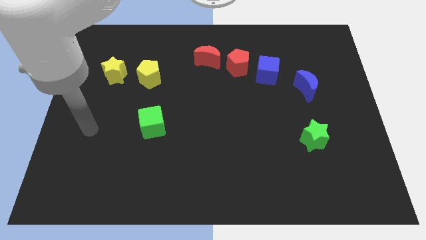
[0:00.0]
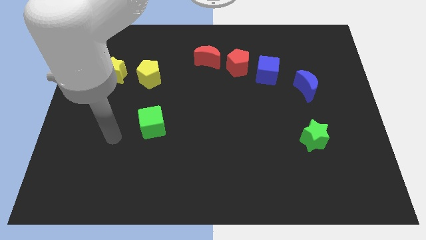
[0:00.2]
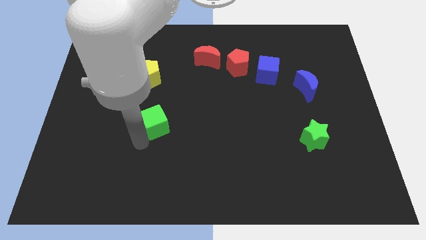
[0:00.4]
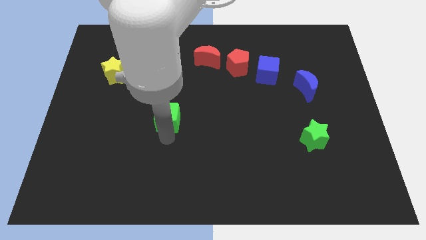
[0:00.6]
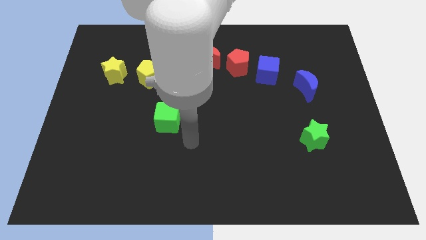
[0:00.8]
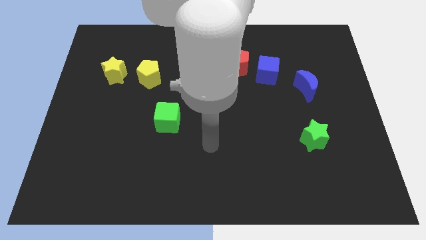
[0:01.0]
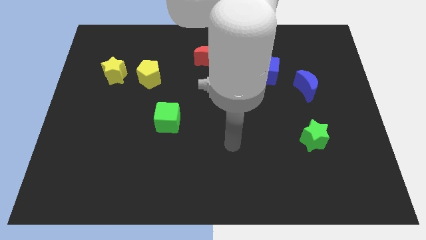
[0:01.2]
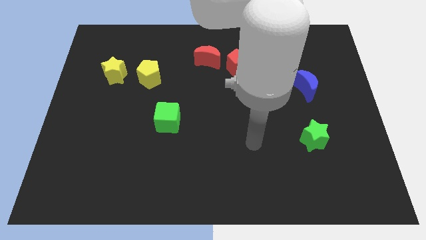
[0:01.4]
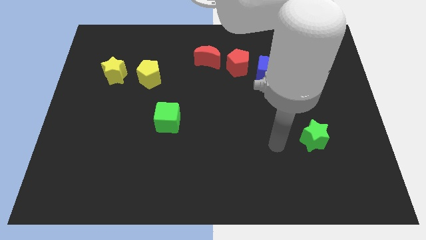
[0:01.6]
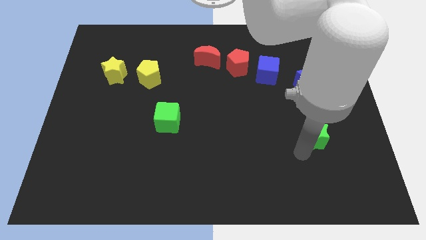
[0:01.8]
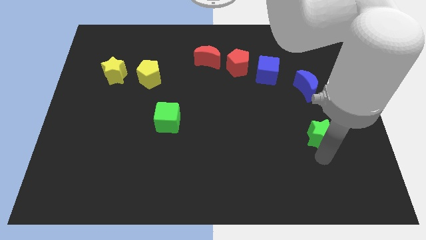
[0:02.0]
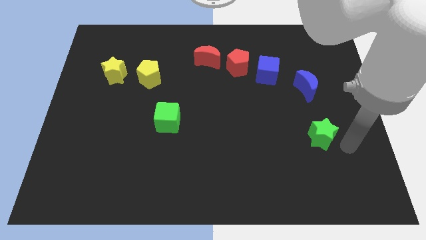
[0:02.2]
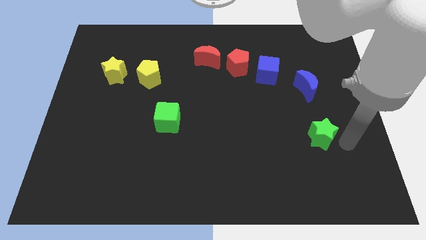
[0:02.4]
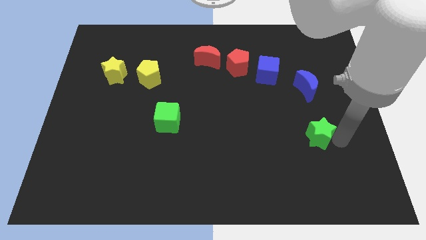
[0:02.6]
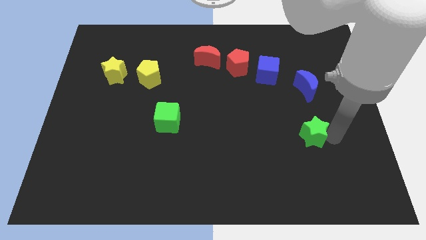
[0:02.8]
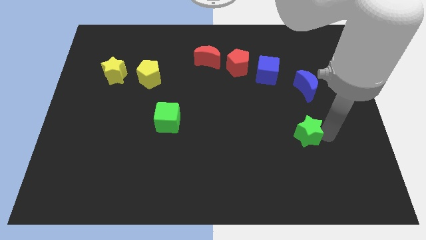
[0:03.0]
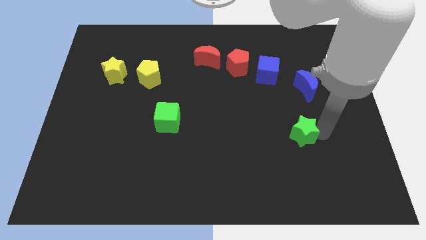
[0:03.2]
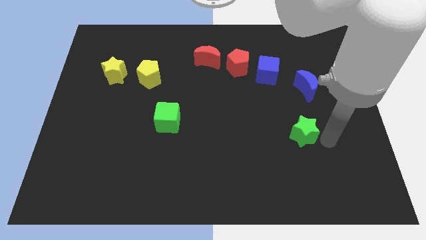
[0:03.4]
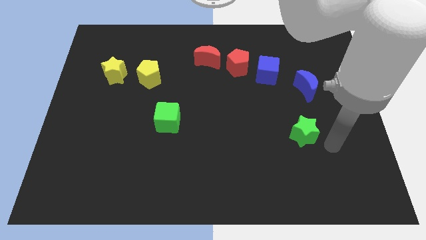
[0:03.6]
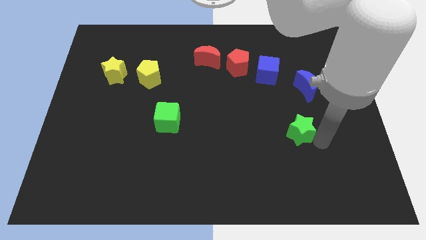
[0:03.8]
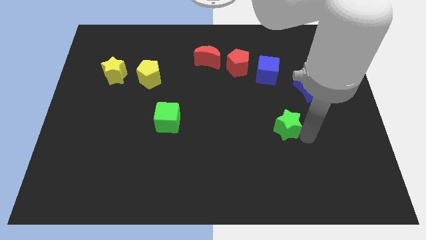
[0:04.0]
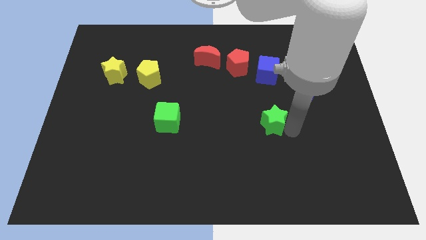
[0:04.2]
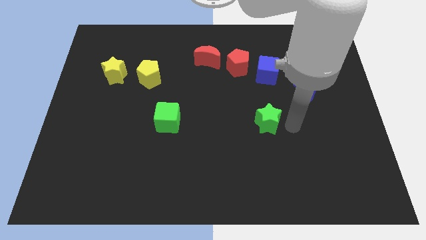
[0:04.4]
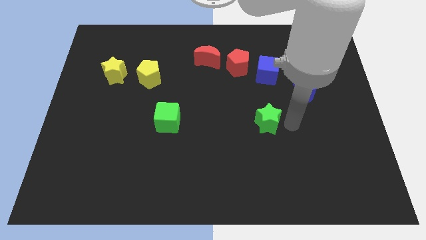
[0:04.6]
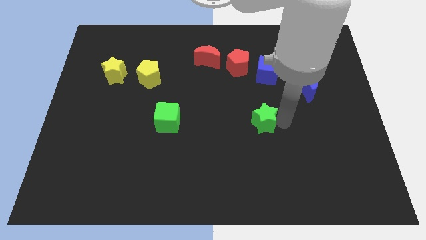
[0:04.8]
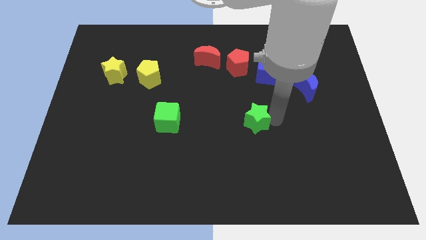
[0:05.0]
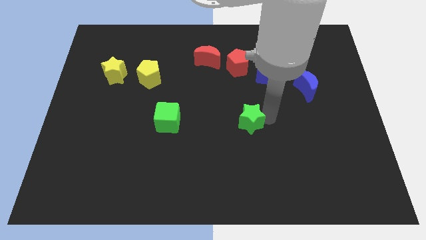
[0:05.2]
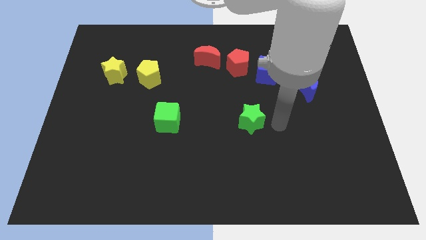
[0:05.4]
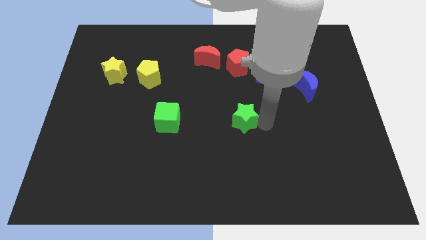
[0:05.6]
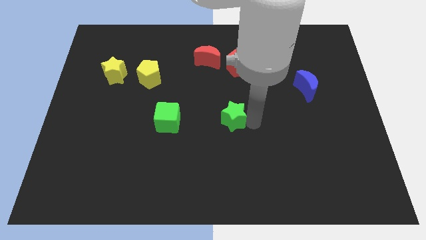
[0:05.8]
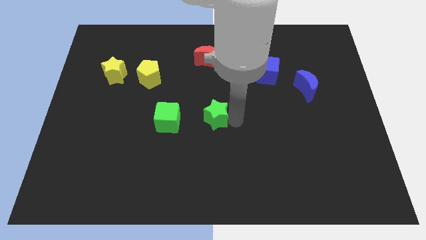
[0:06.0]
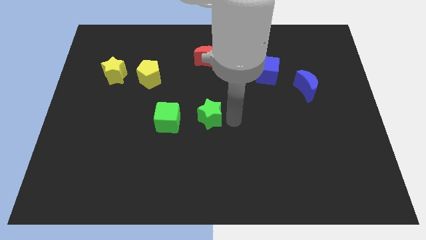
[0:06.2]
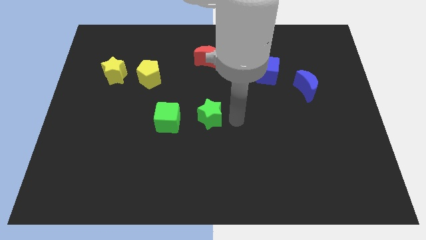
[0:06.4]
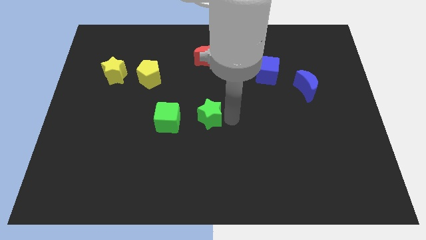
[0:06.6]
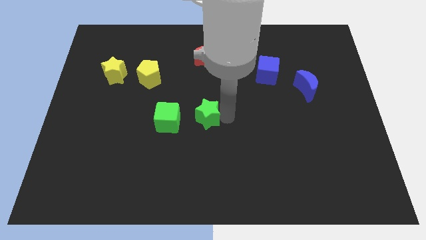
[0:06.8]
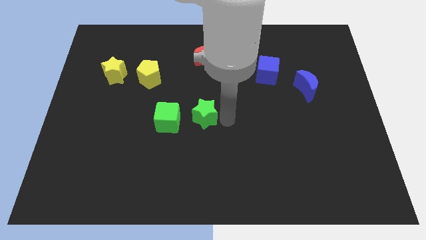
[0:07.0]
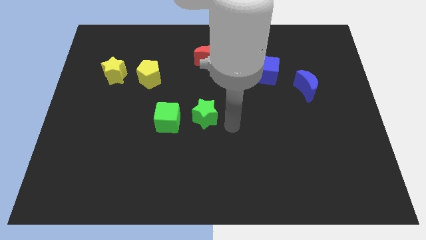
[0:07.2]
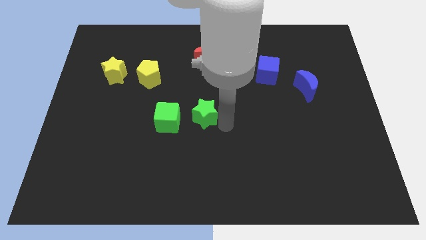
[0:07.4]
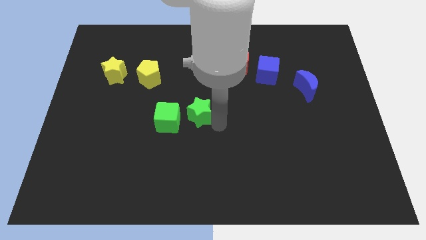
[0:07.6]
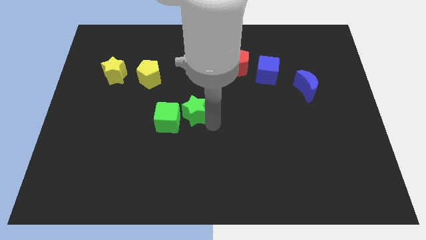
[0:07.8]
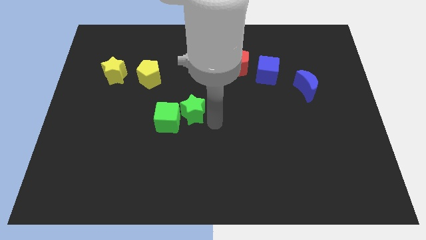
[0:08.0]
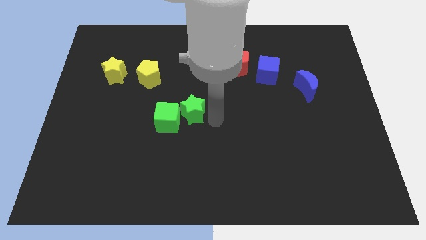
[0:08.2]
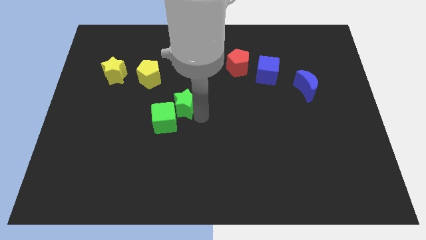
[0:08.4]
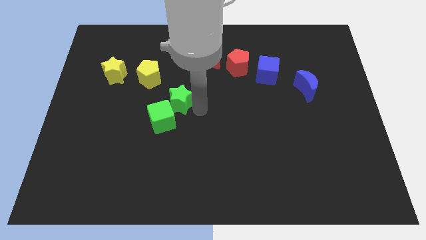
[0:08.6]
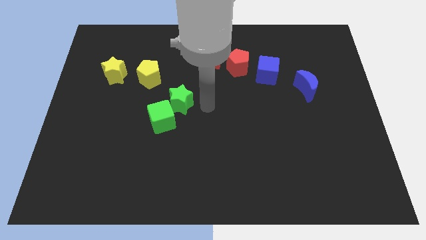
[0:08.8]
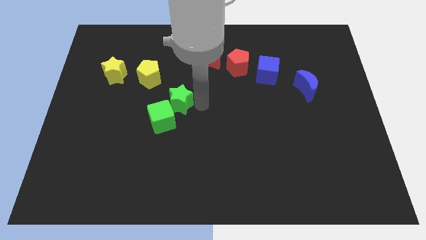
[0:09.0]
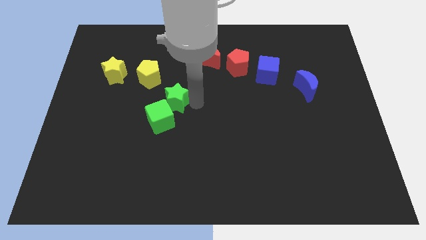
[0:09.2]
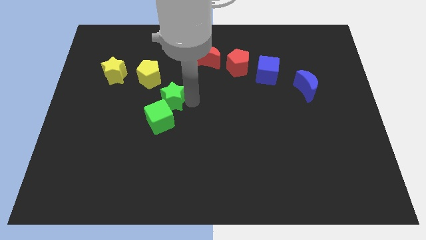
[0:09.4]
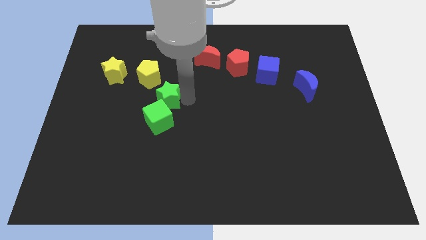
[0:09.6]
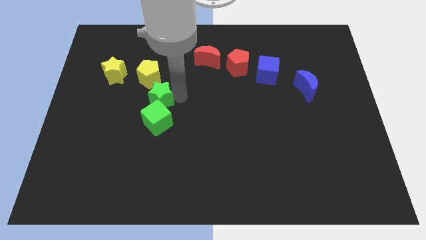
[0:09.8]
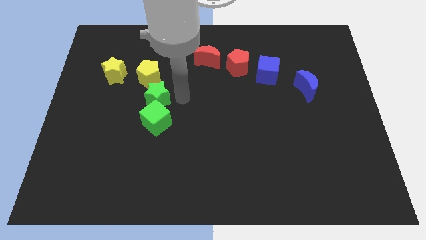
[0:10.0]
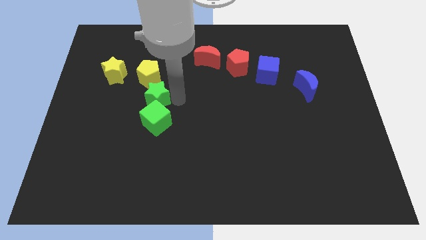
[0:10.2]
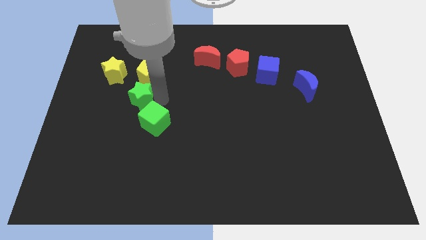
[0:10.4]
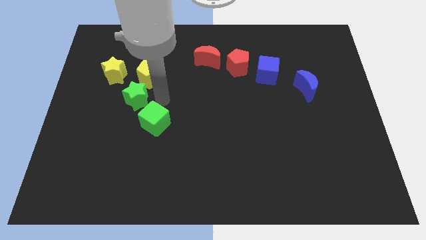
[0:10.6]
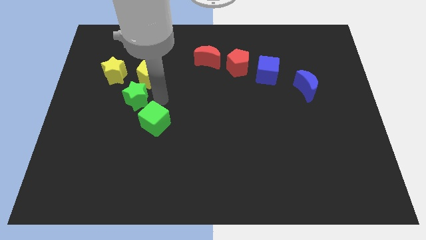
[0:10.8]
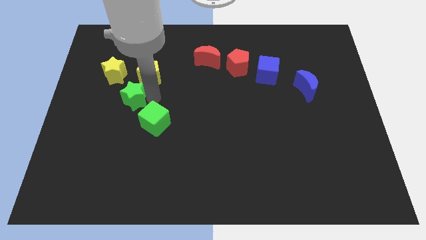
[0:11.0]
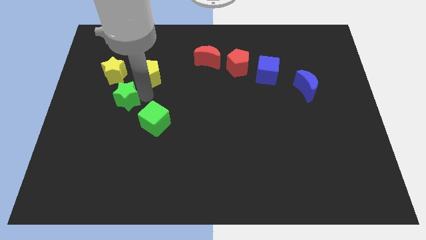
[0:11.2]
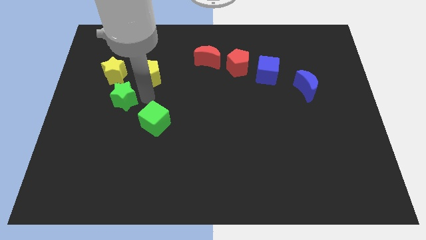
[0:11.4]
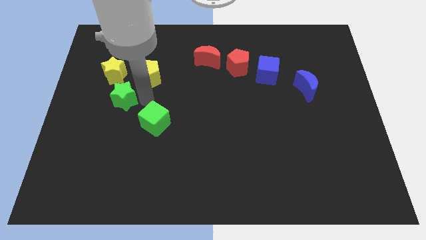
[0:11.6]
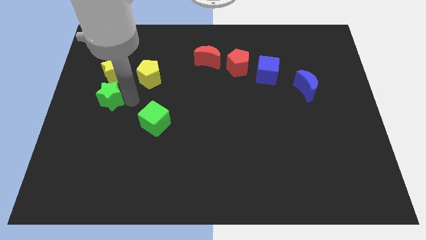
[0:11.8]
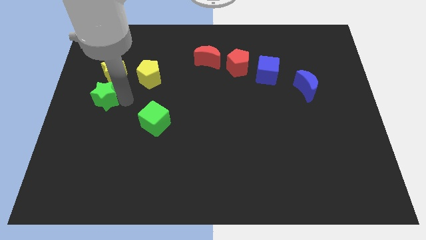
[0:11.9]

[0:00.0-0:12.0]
put the green star to the center left

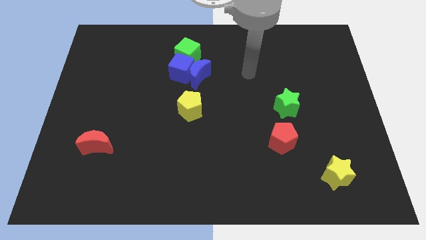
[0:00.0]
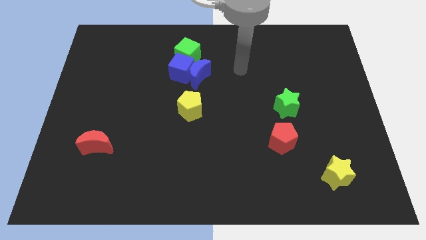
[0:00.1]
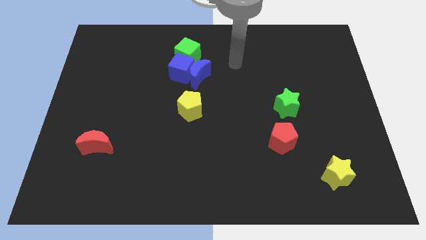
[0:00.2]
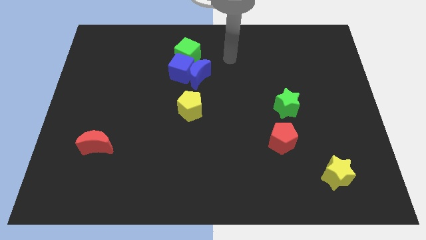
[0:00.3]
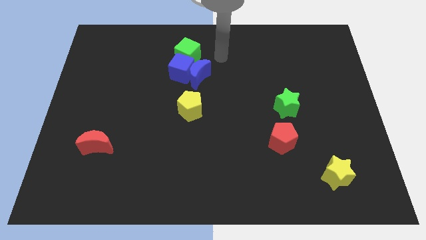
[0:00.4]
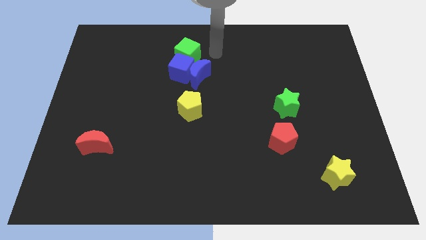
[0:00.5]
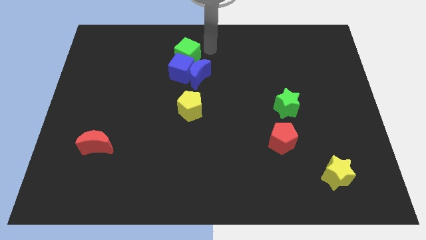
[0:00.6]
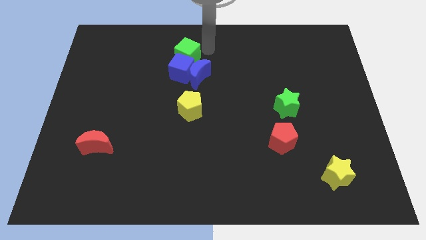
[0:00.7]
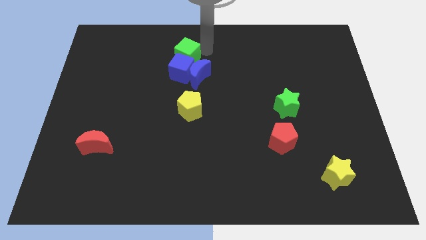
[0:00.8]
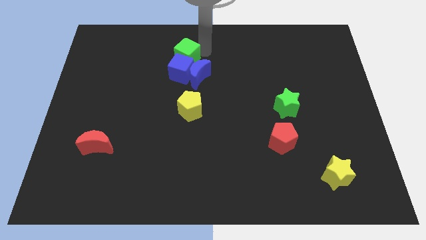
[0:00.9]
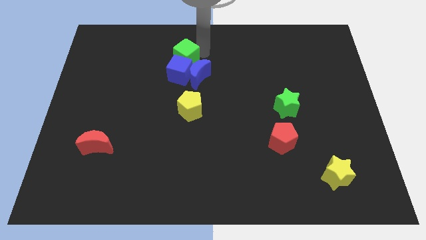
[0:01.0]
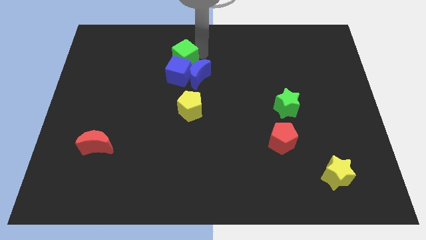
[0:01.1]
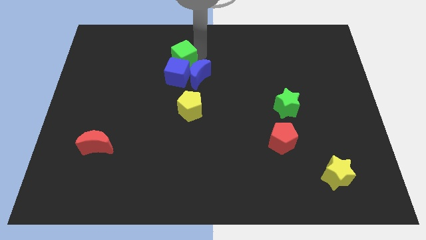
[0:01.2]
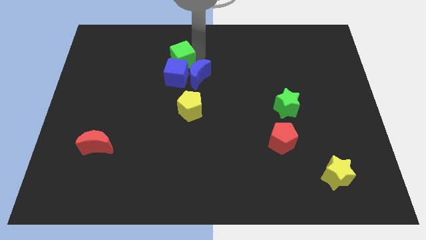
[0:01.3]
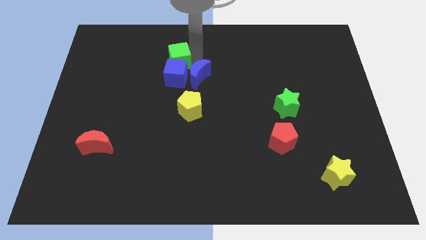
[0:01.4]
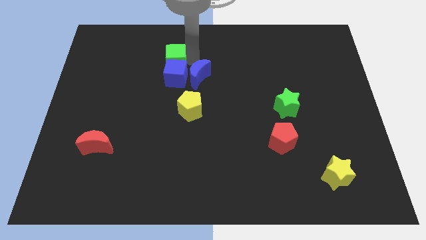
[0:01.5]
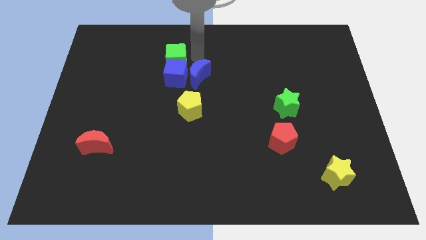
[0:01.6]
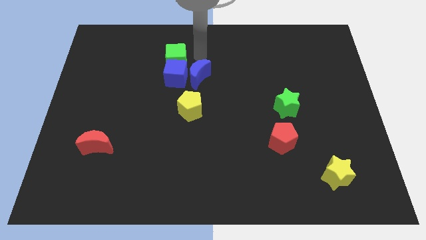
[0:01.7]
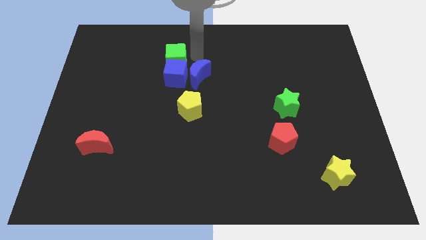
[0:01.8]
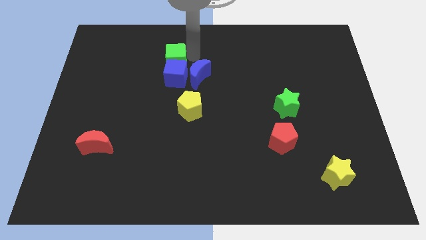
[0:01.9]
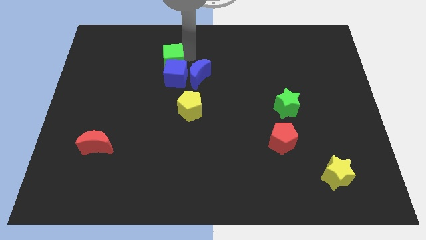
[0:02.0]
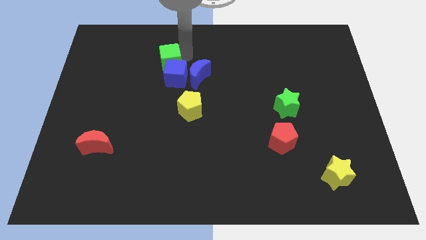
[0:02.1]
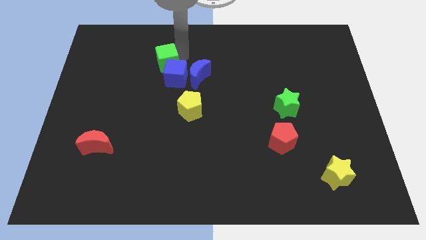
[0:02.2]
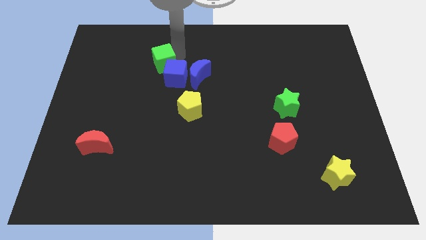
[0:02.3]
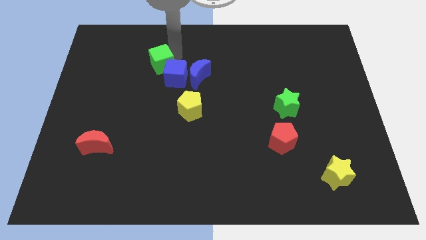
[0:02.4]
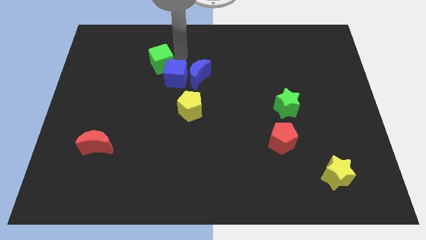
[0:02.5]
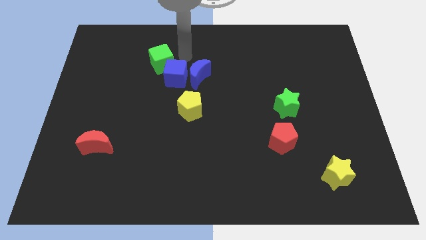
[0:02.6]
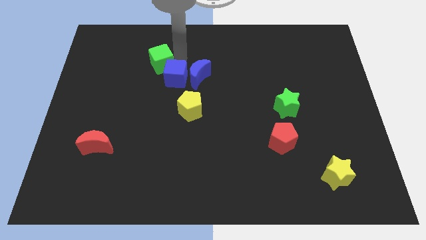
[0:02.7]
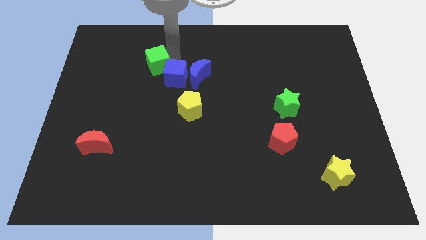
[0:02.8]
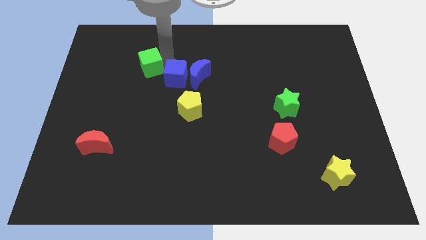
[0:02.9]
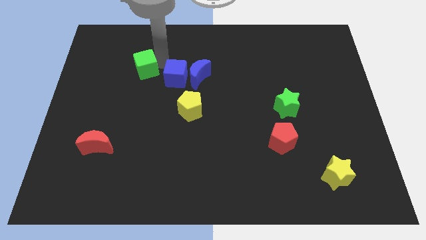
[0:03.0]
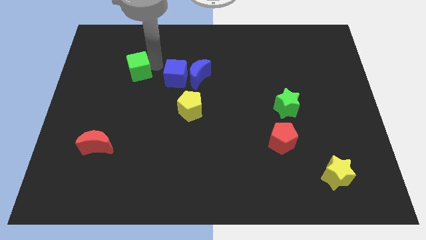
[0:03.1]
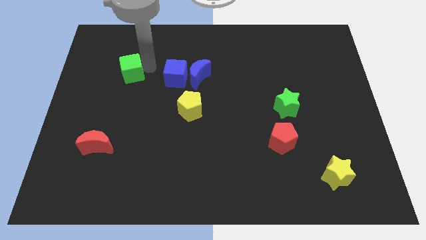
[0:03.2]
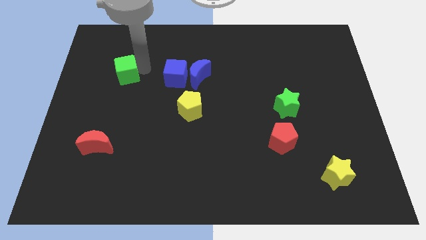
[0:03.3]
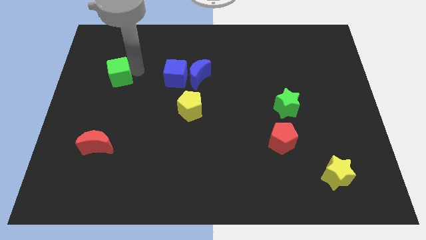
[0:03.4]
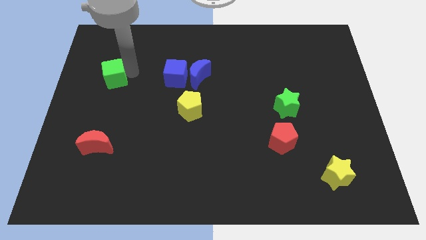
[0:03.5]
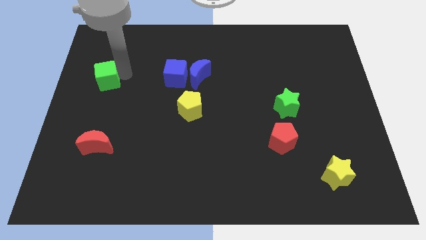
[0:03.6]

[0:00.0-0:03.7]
slide the green cube to the left side of the board
